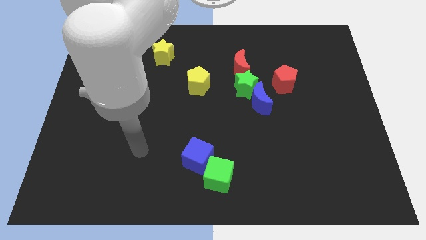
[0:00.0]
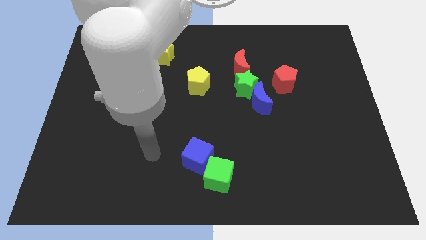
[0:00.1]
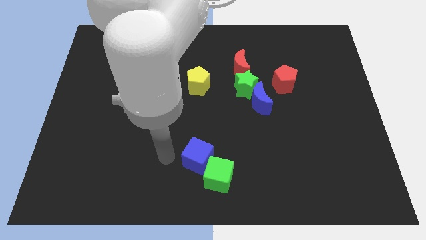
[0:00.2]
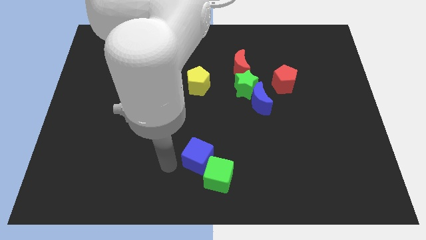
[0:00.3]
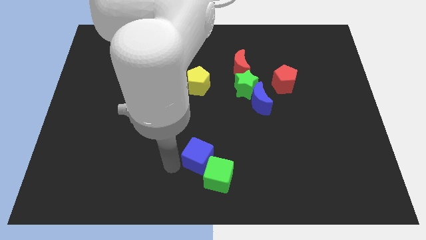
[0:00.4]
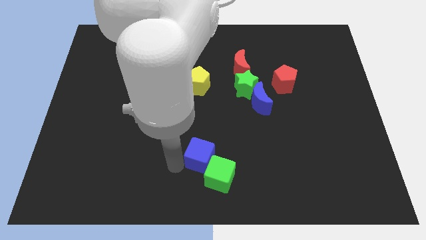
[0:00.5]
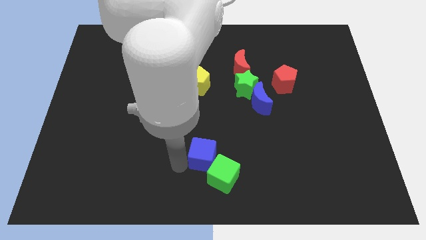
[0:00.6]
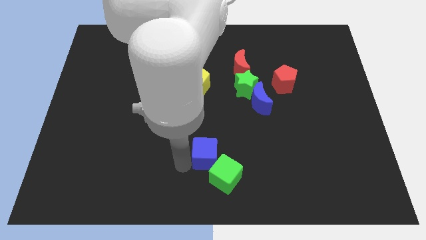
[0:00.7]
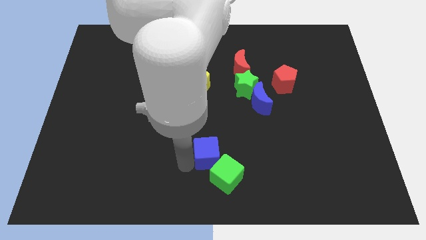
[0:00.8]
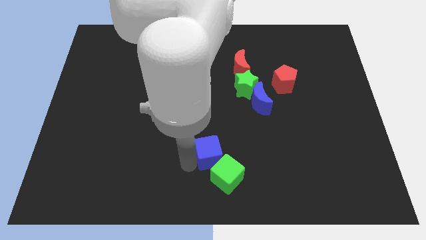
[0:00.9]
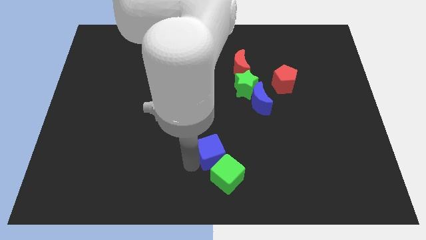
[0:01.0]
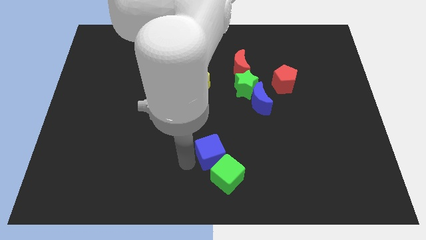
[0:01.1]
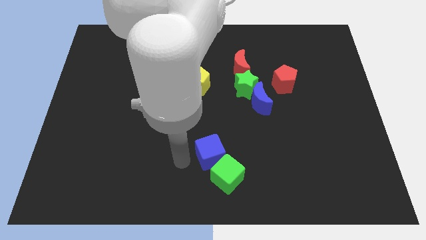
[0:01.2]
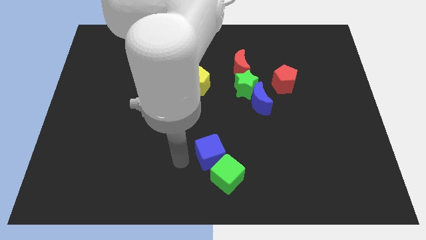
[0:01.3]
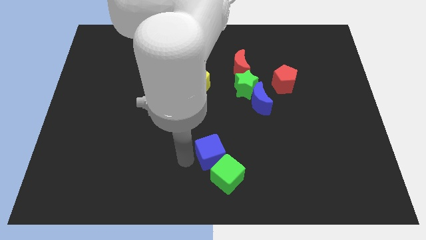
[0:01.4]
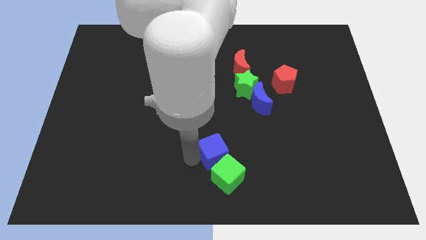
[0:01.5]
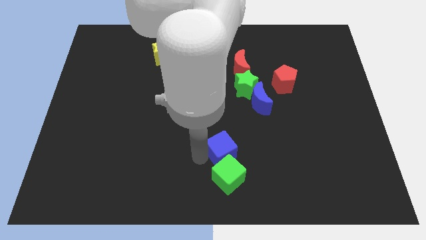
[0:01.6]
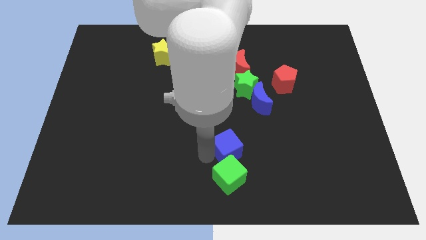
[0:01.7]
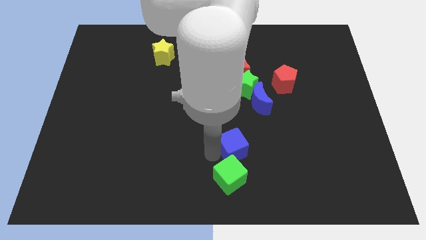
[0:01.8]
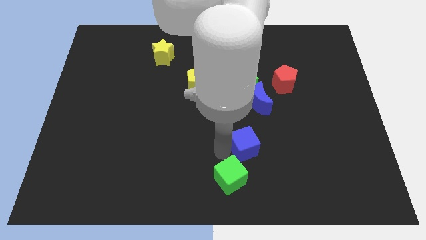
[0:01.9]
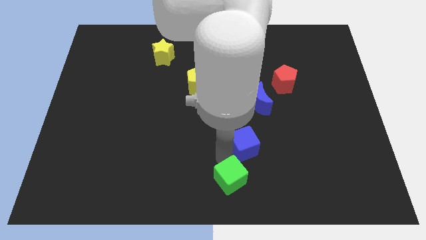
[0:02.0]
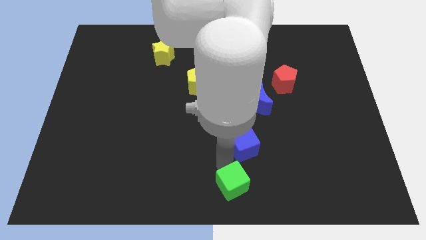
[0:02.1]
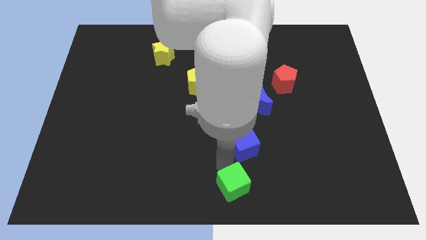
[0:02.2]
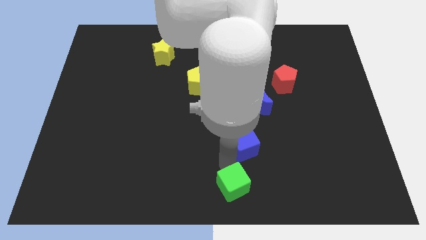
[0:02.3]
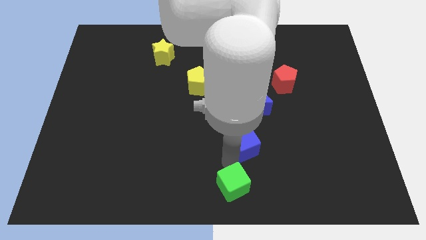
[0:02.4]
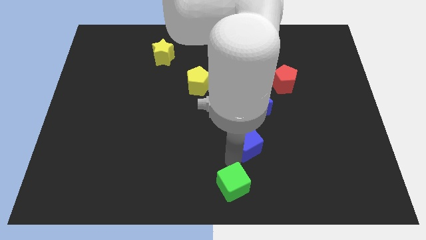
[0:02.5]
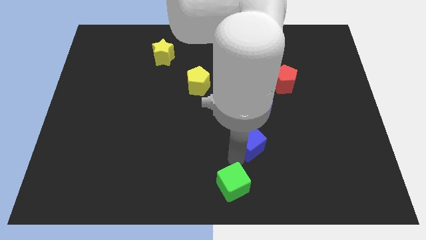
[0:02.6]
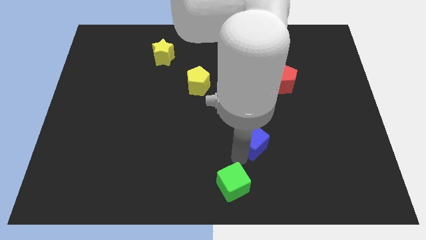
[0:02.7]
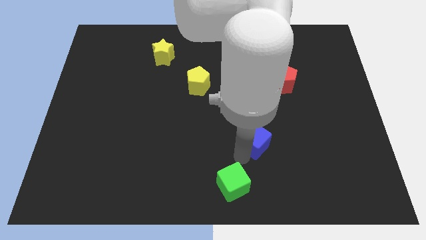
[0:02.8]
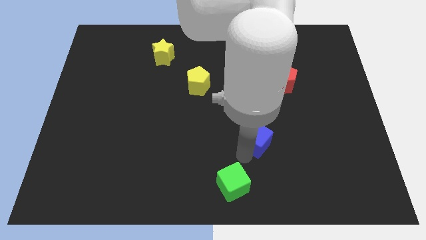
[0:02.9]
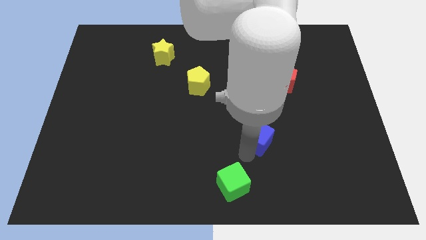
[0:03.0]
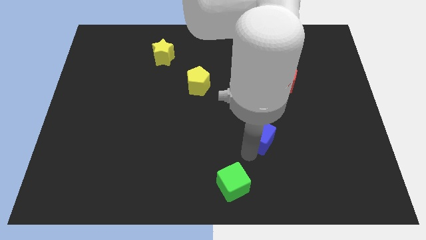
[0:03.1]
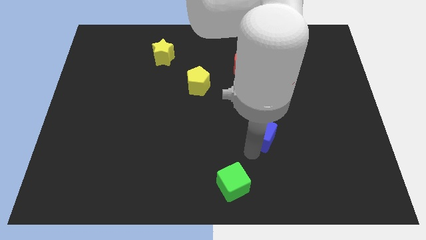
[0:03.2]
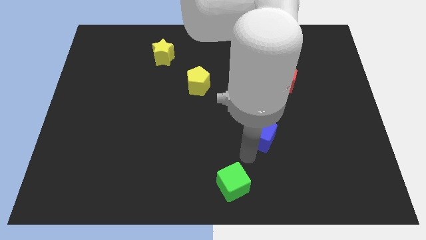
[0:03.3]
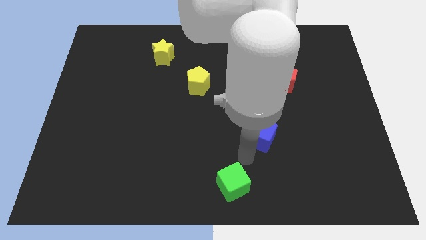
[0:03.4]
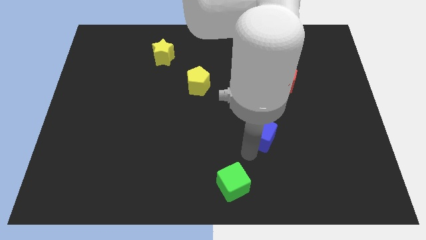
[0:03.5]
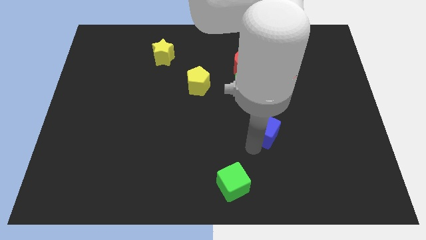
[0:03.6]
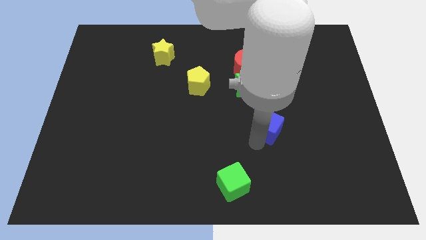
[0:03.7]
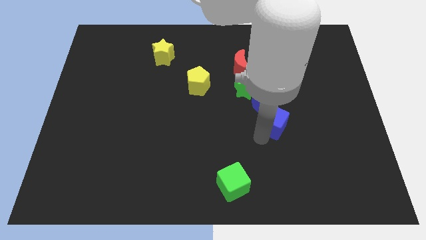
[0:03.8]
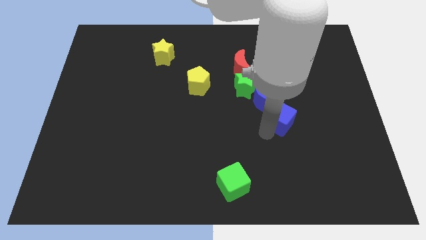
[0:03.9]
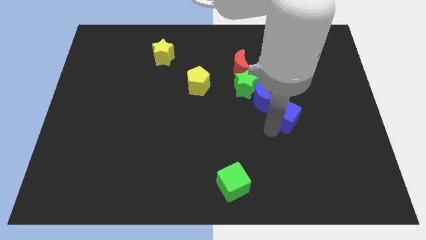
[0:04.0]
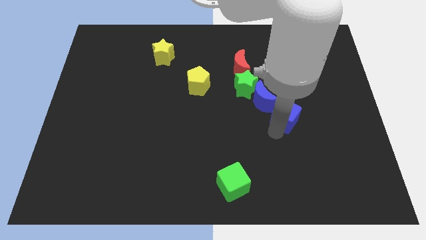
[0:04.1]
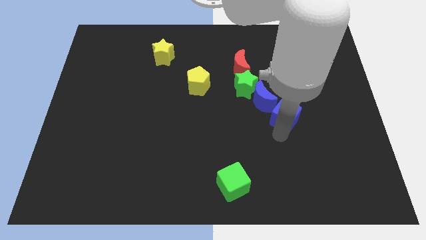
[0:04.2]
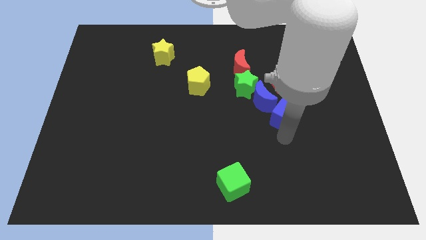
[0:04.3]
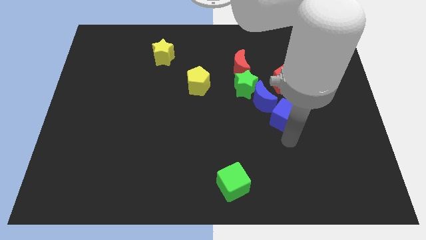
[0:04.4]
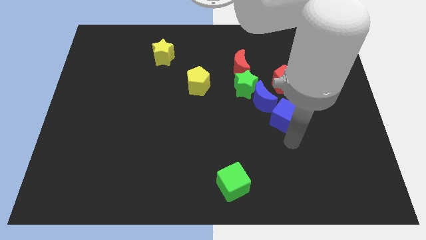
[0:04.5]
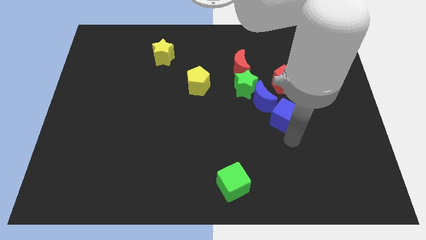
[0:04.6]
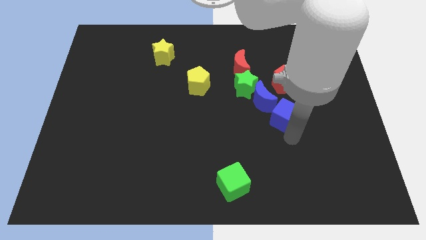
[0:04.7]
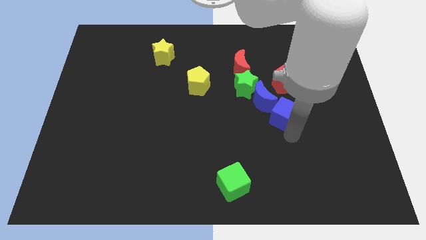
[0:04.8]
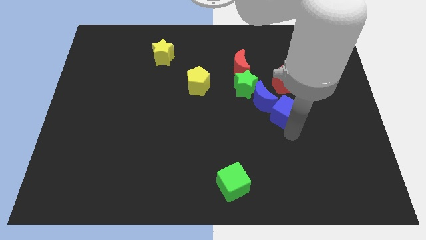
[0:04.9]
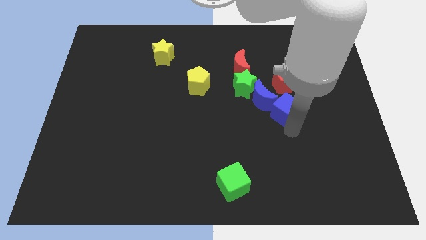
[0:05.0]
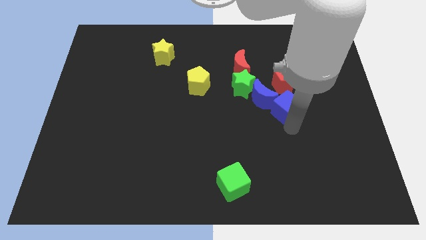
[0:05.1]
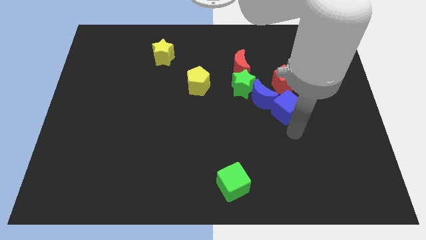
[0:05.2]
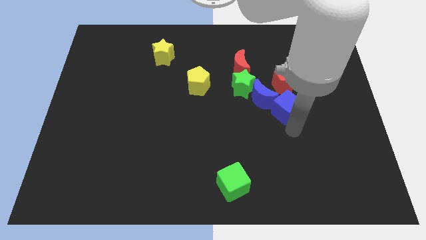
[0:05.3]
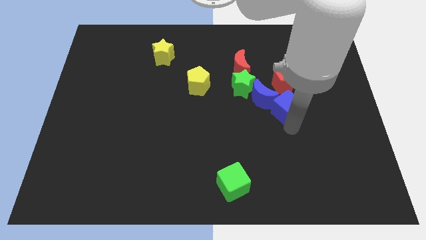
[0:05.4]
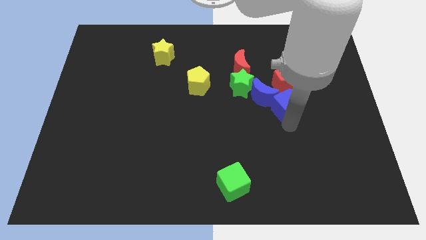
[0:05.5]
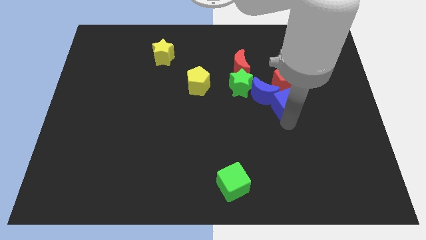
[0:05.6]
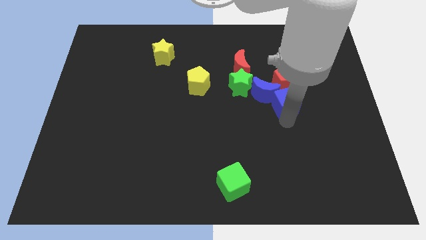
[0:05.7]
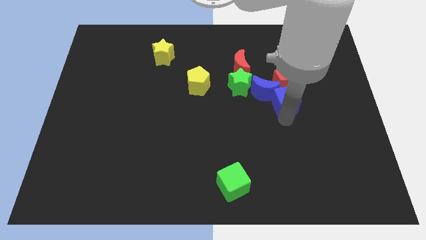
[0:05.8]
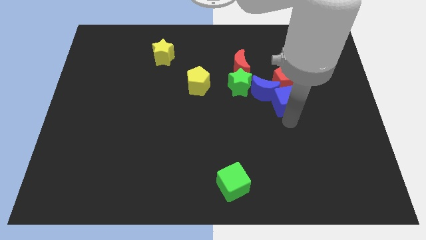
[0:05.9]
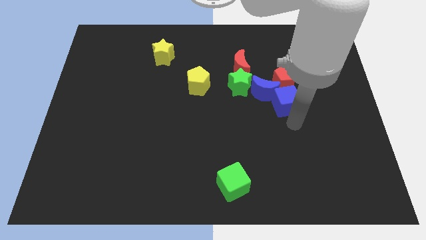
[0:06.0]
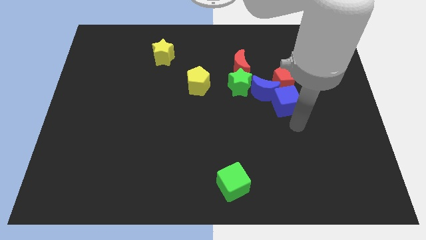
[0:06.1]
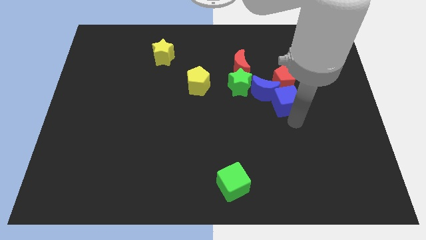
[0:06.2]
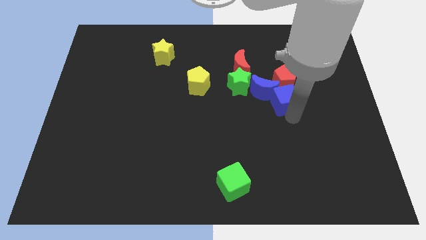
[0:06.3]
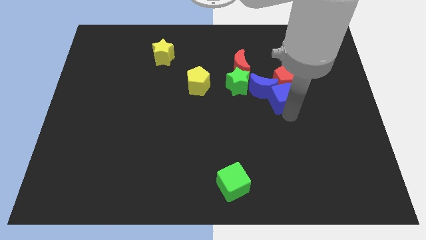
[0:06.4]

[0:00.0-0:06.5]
slide the blue cube towards the red pentagon

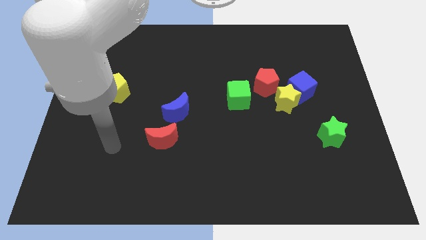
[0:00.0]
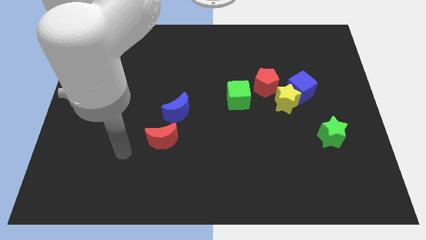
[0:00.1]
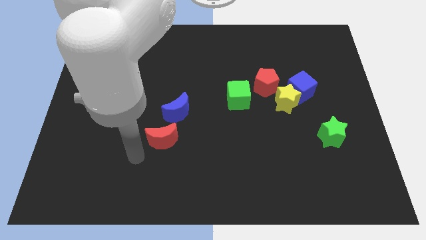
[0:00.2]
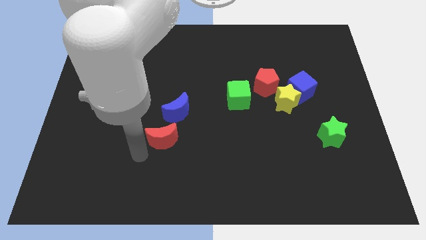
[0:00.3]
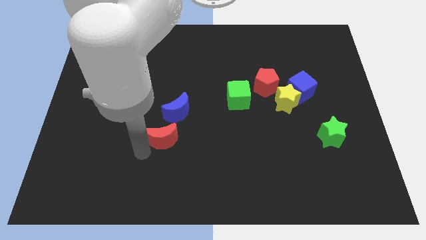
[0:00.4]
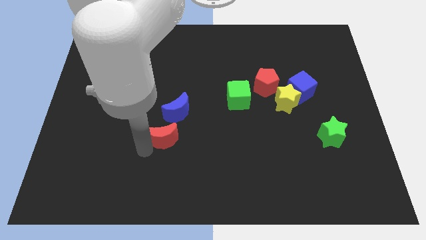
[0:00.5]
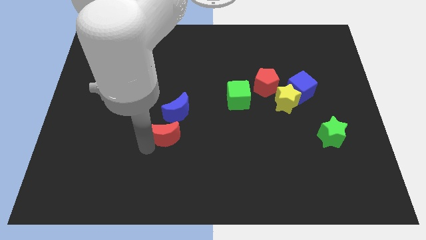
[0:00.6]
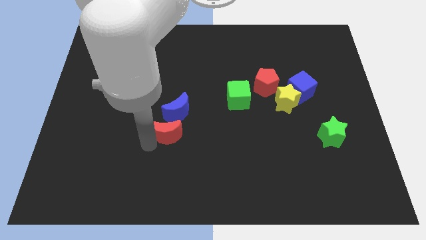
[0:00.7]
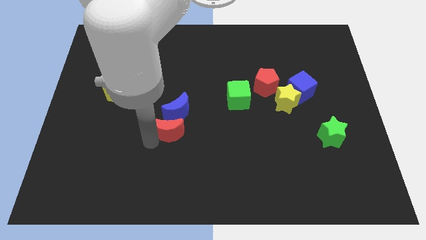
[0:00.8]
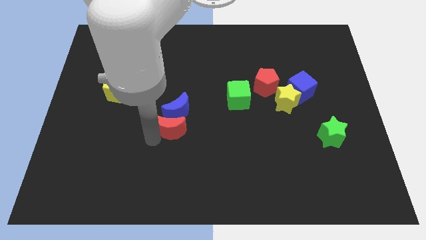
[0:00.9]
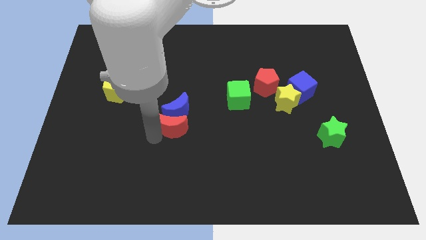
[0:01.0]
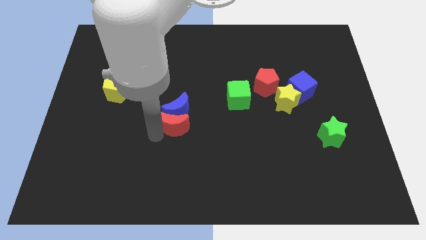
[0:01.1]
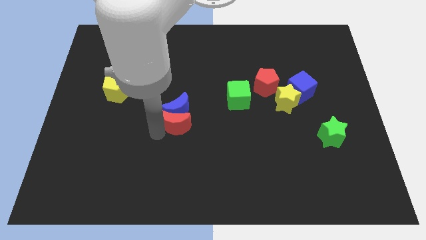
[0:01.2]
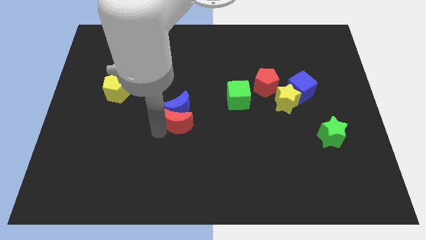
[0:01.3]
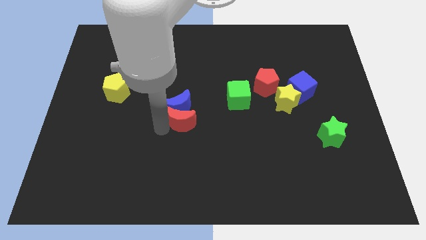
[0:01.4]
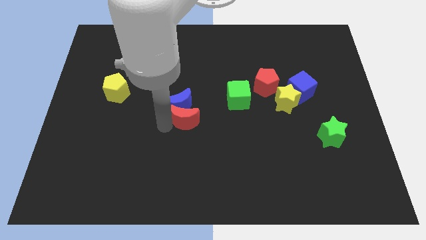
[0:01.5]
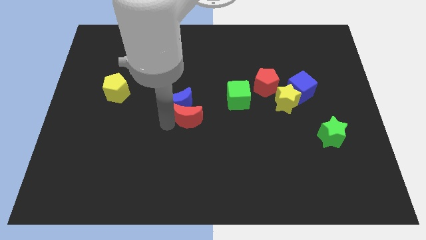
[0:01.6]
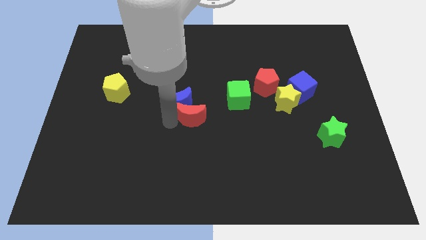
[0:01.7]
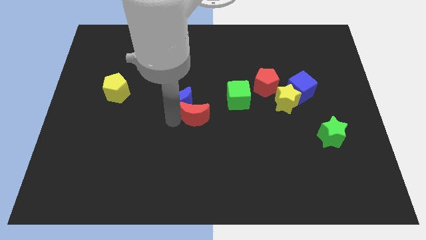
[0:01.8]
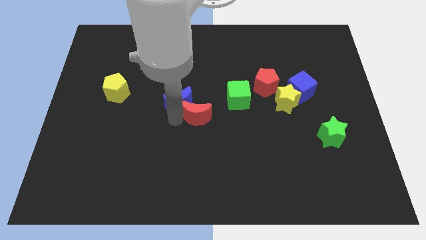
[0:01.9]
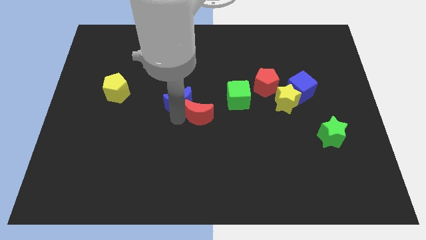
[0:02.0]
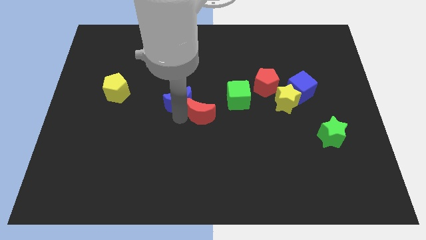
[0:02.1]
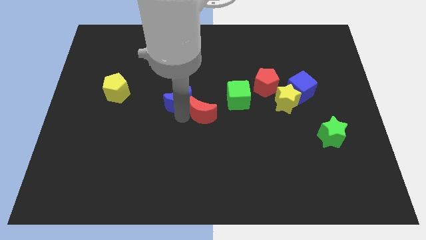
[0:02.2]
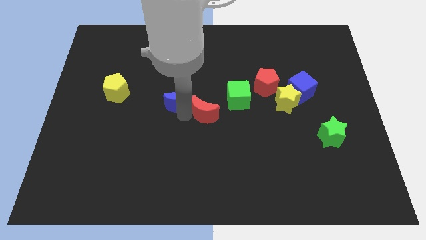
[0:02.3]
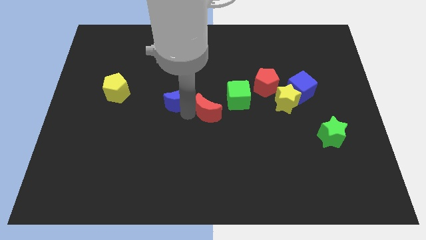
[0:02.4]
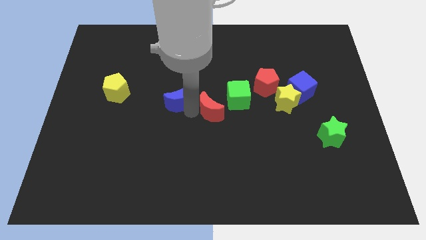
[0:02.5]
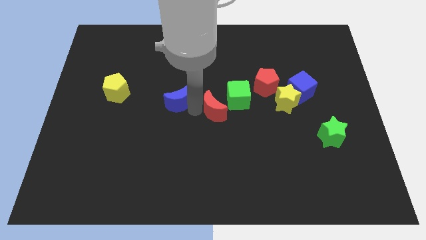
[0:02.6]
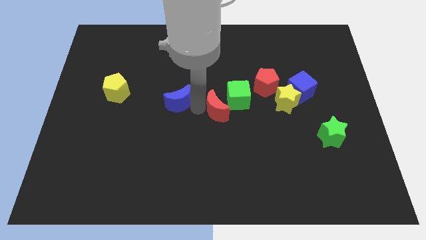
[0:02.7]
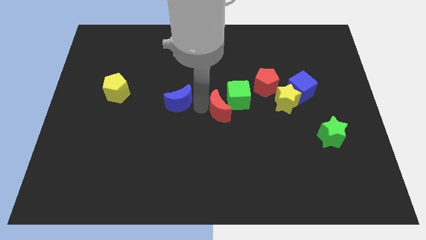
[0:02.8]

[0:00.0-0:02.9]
put the red moon to the green cube
